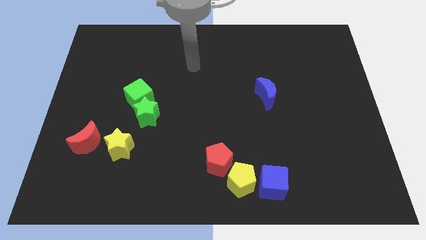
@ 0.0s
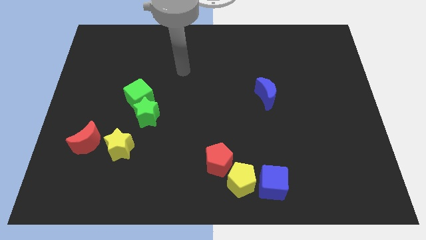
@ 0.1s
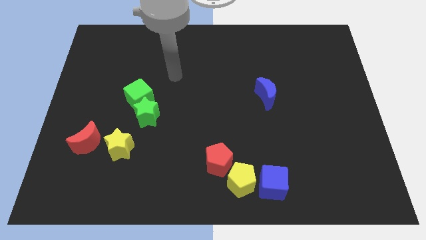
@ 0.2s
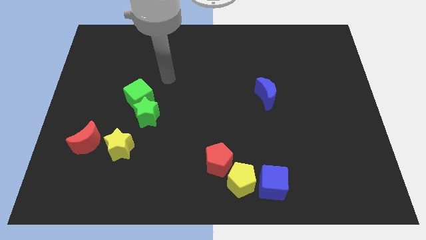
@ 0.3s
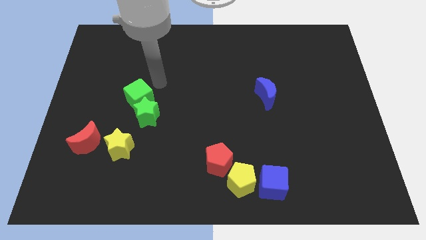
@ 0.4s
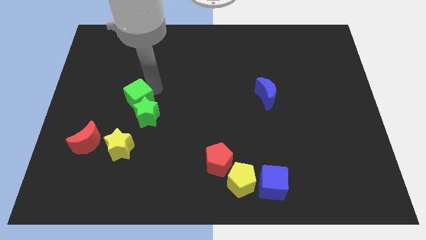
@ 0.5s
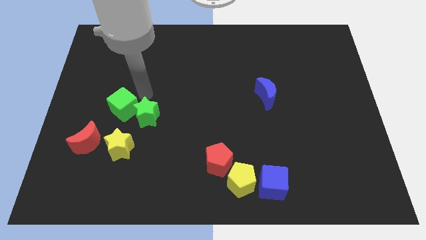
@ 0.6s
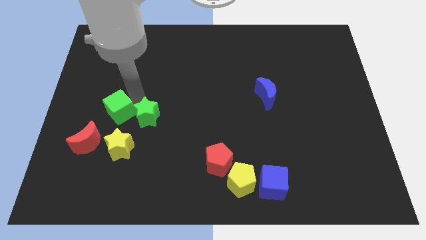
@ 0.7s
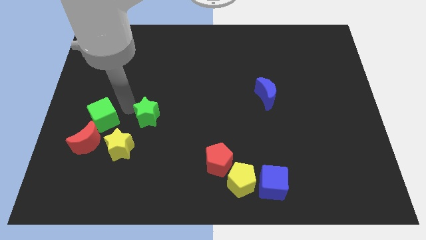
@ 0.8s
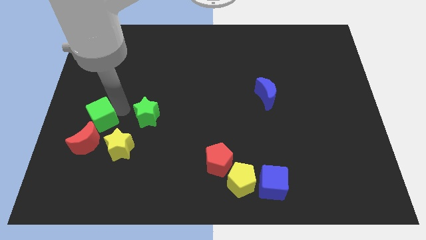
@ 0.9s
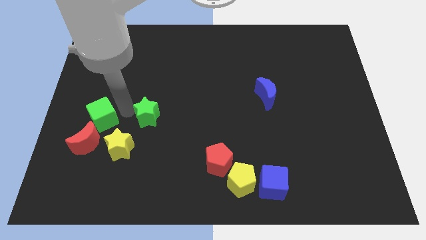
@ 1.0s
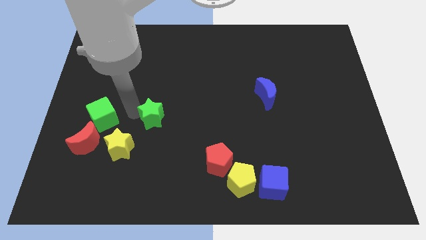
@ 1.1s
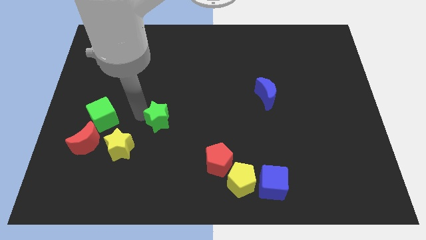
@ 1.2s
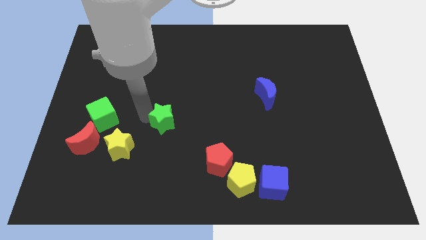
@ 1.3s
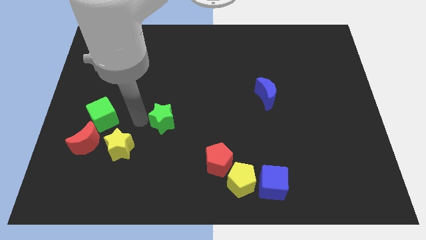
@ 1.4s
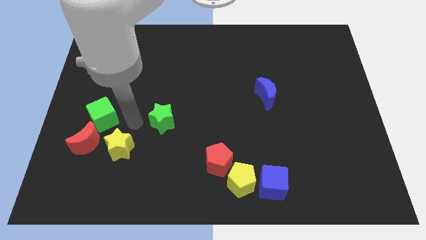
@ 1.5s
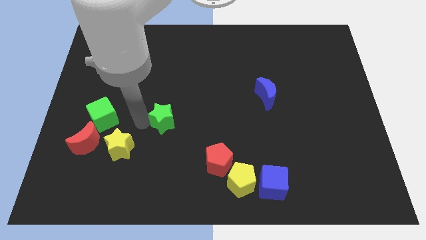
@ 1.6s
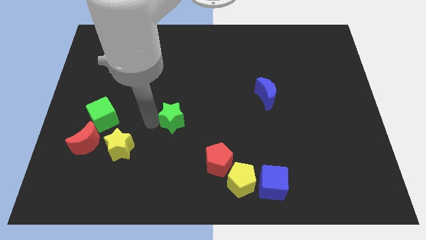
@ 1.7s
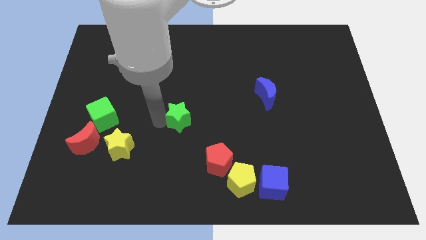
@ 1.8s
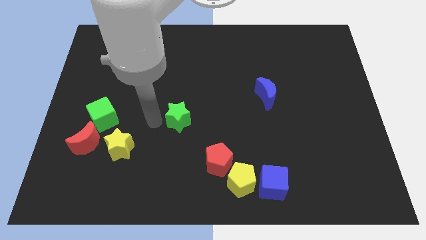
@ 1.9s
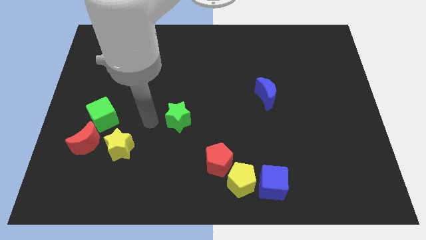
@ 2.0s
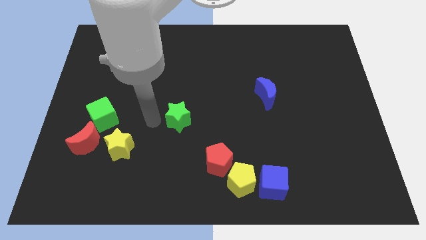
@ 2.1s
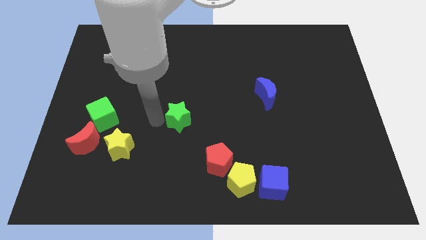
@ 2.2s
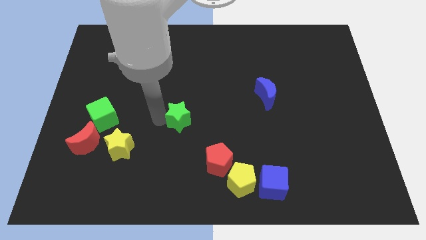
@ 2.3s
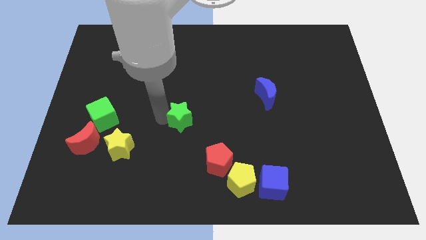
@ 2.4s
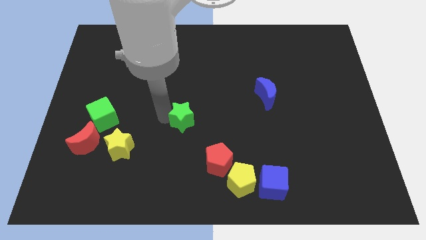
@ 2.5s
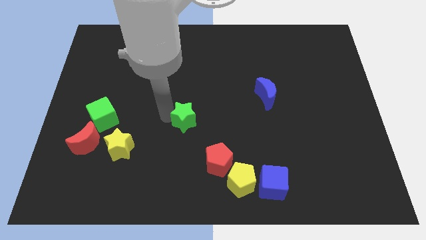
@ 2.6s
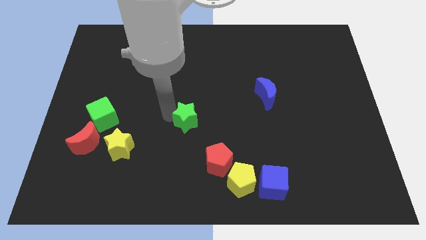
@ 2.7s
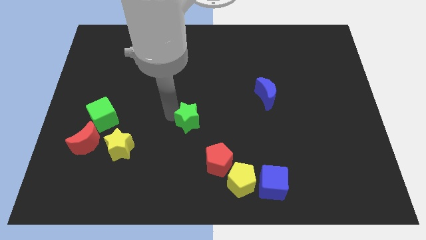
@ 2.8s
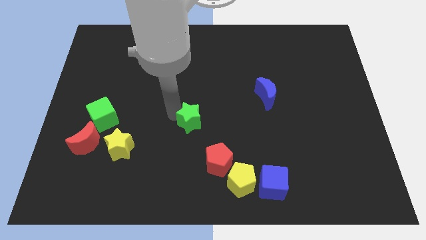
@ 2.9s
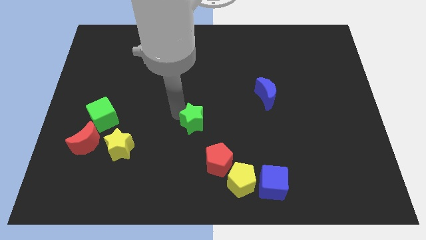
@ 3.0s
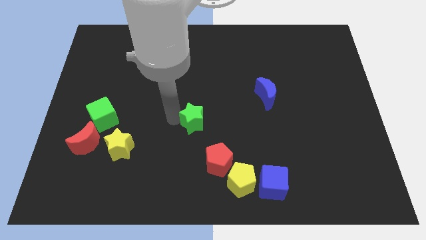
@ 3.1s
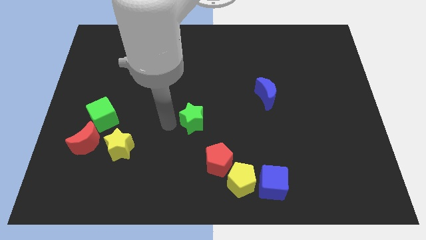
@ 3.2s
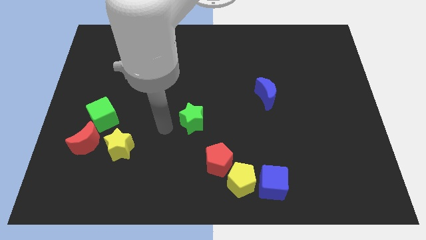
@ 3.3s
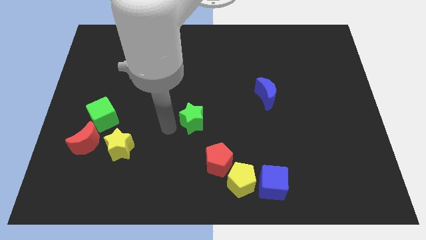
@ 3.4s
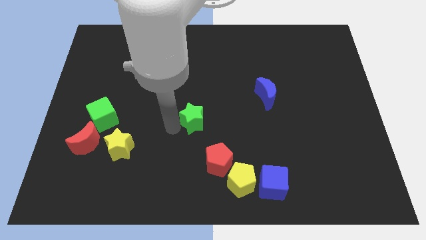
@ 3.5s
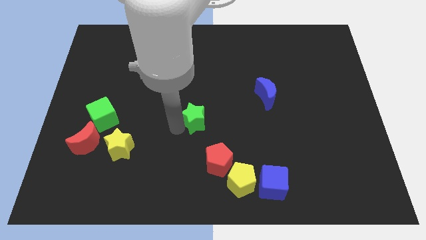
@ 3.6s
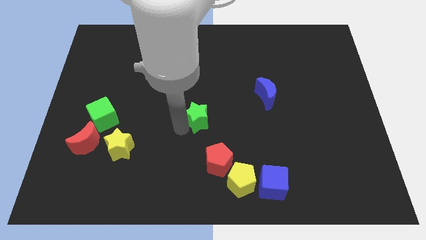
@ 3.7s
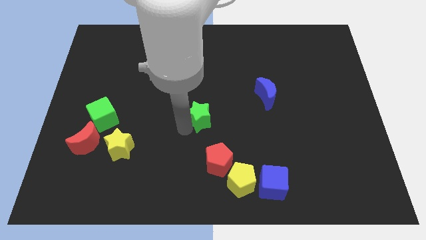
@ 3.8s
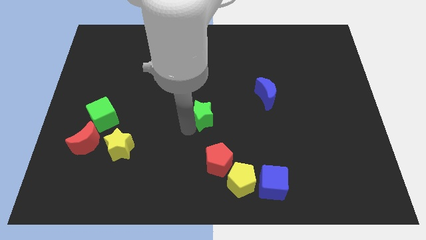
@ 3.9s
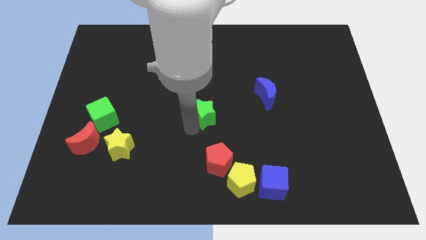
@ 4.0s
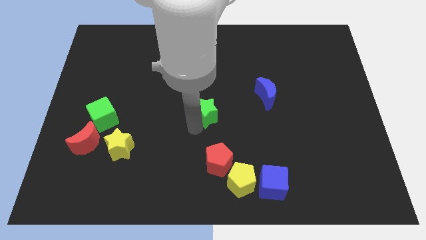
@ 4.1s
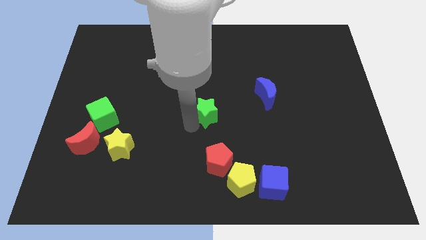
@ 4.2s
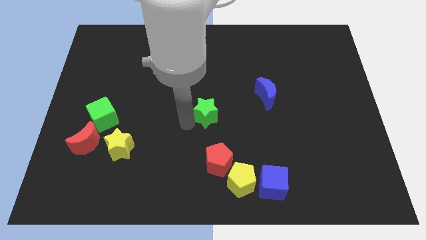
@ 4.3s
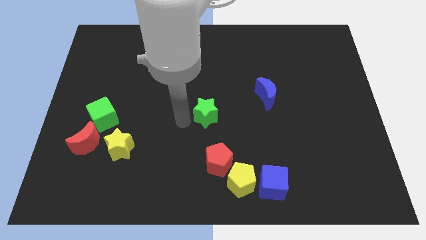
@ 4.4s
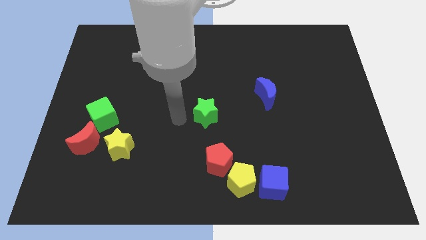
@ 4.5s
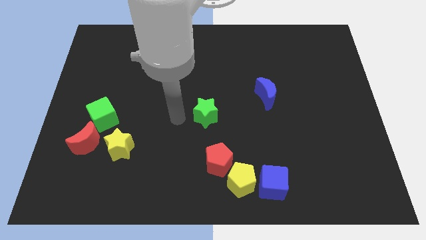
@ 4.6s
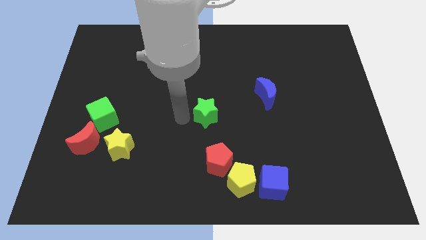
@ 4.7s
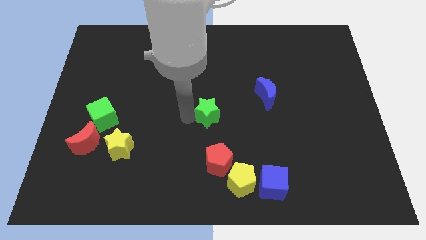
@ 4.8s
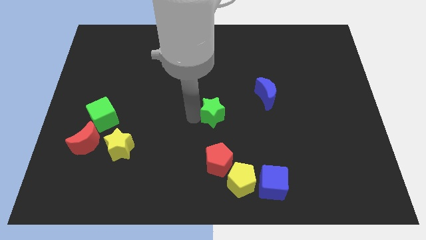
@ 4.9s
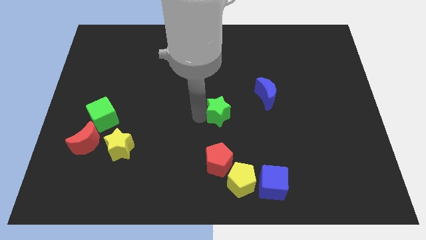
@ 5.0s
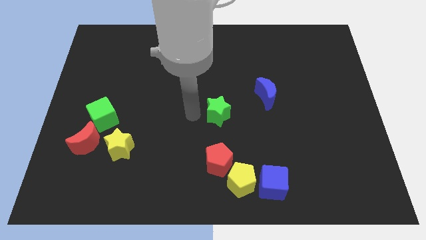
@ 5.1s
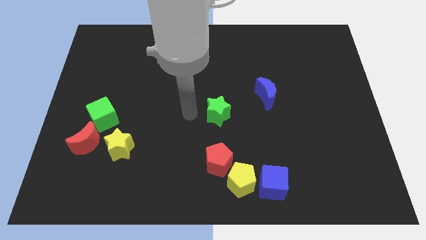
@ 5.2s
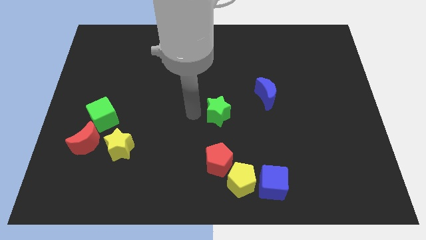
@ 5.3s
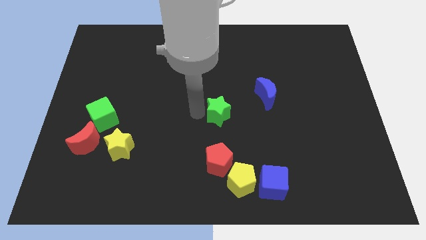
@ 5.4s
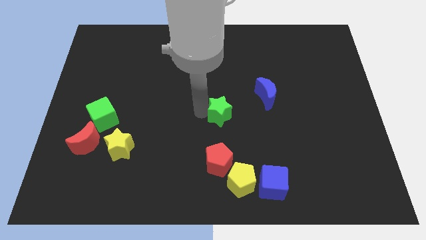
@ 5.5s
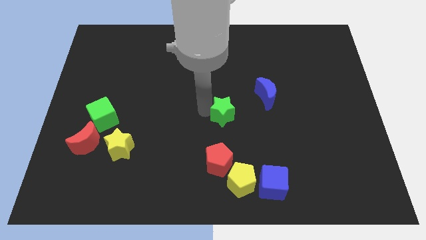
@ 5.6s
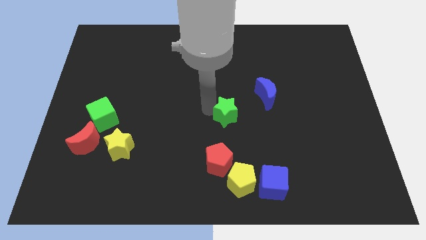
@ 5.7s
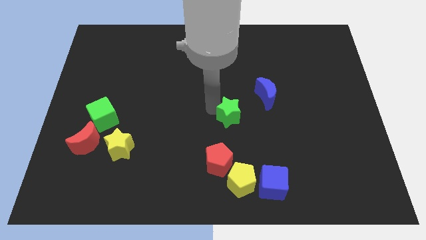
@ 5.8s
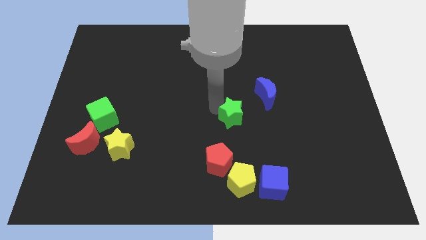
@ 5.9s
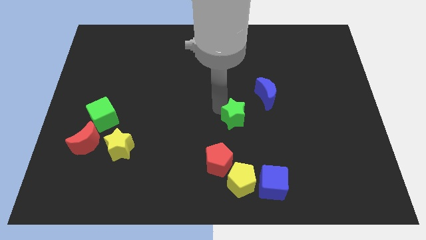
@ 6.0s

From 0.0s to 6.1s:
slide the green star to the right

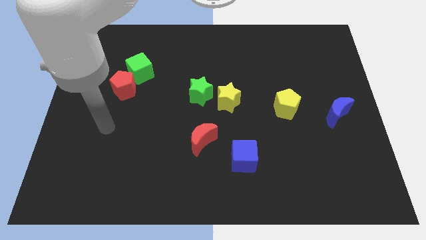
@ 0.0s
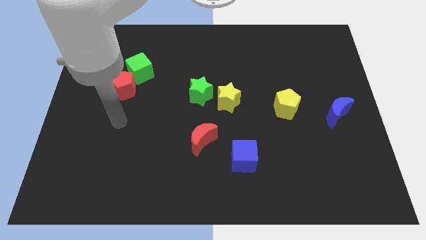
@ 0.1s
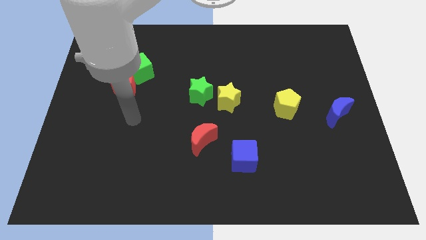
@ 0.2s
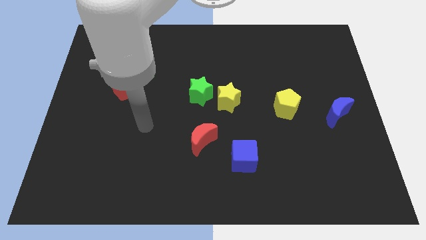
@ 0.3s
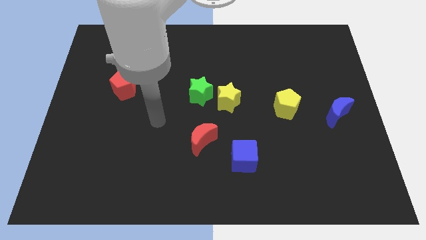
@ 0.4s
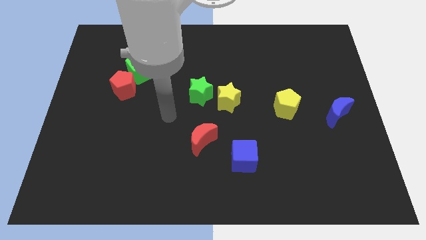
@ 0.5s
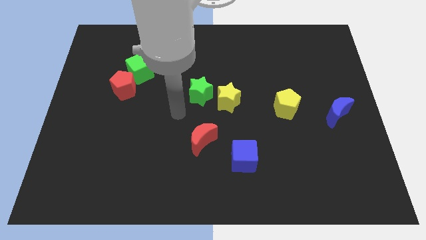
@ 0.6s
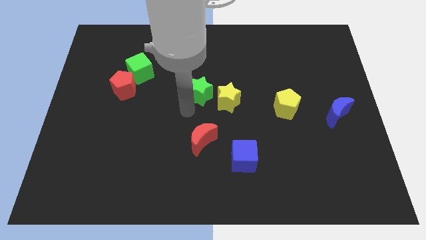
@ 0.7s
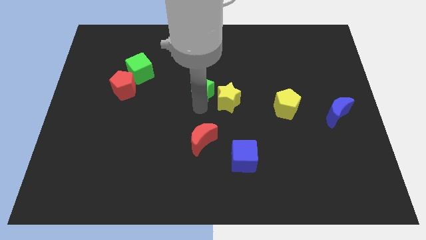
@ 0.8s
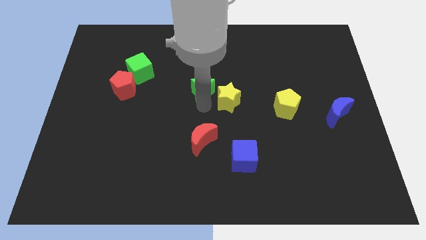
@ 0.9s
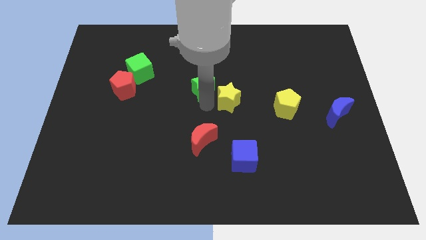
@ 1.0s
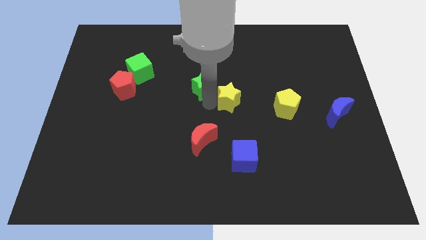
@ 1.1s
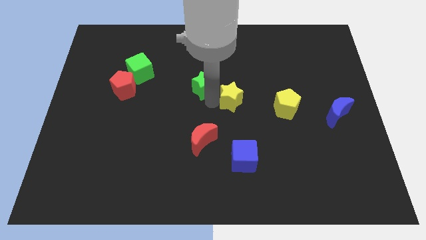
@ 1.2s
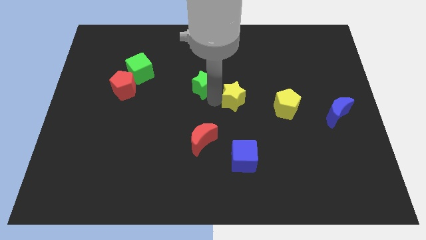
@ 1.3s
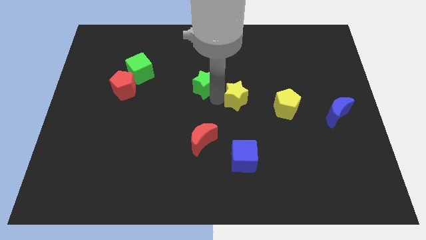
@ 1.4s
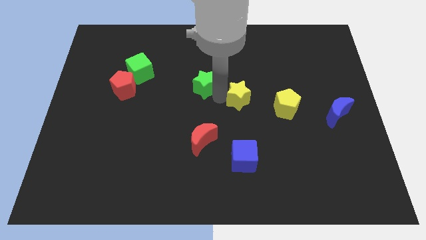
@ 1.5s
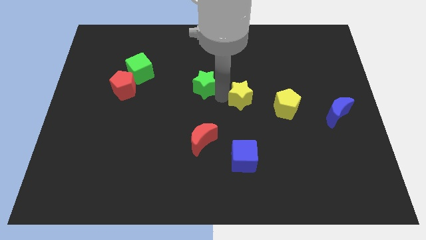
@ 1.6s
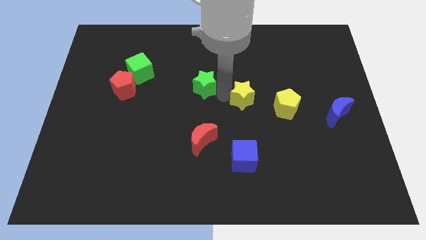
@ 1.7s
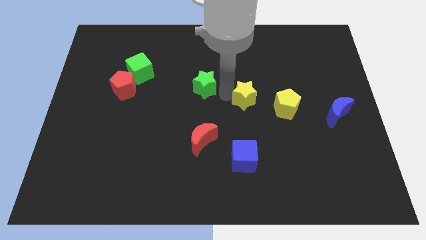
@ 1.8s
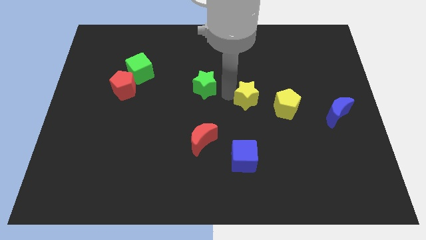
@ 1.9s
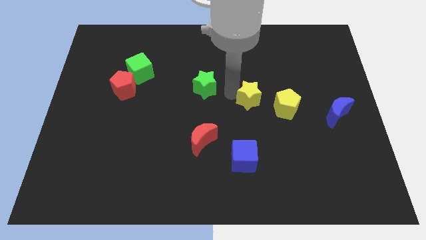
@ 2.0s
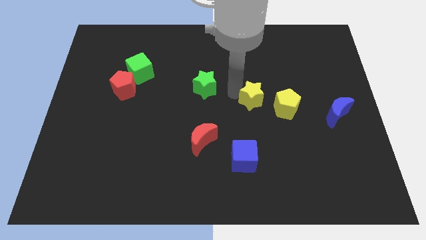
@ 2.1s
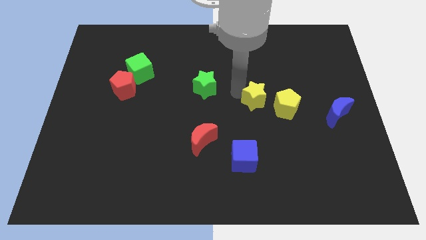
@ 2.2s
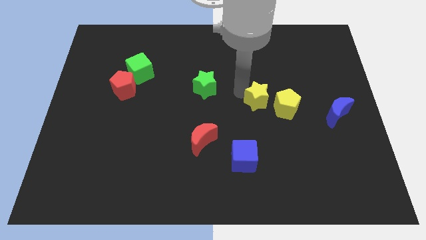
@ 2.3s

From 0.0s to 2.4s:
slide the yellow star a little right

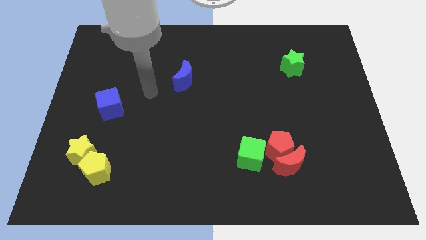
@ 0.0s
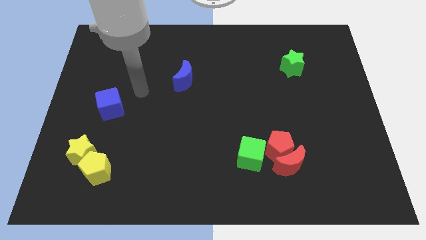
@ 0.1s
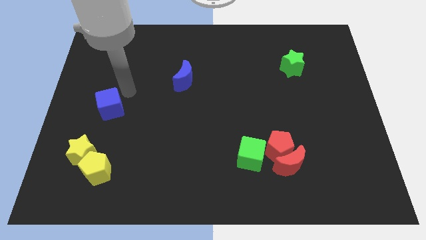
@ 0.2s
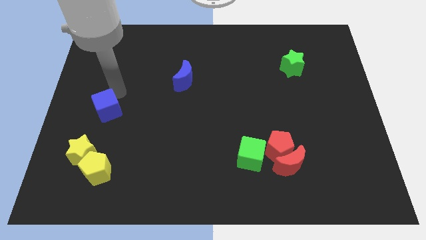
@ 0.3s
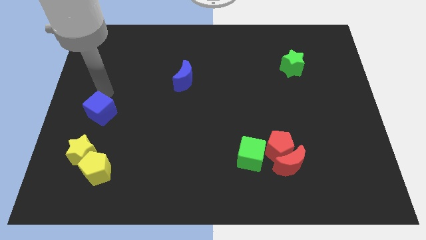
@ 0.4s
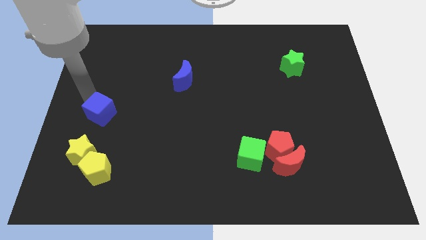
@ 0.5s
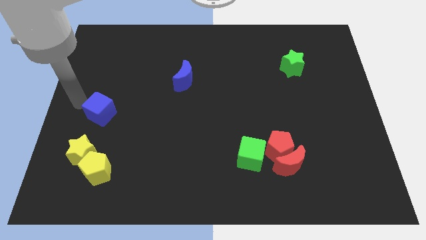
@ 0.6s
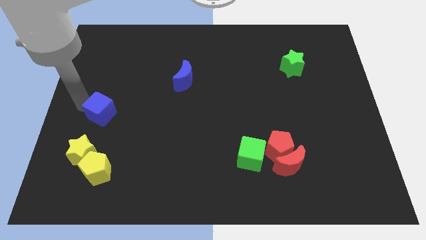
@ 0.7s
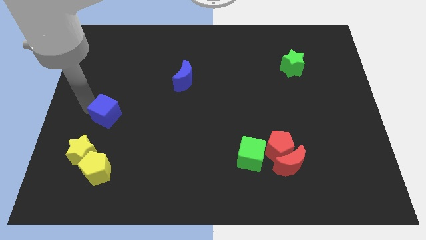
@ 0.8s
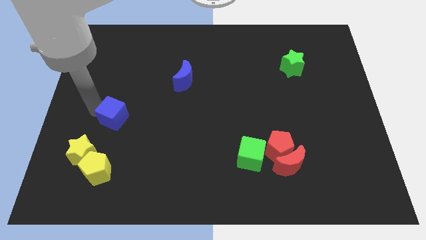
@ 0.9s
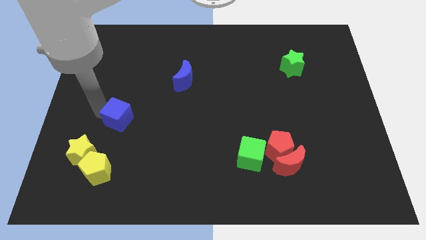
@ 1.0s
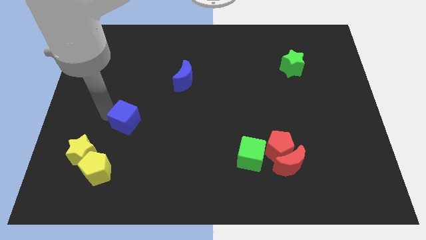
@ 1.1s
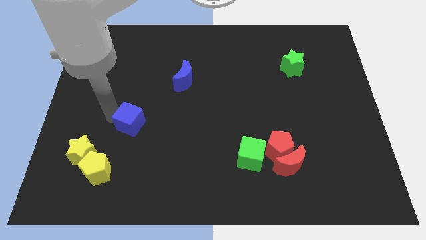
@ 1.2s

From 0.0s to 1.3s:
push the blue cube somewhat downwards and then right
